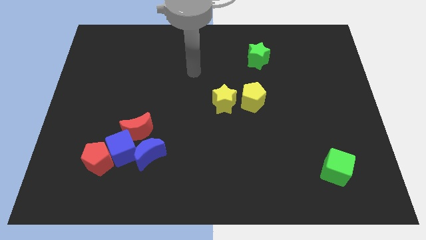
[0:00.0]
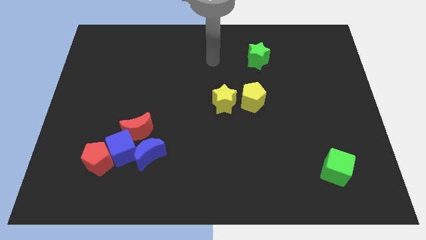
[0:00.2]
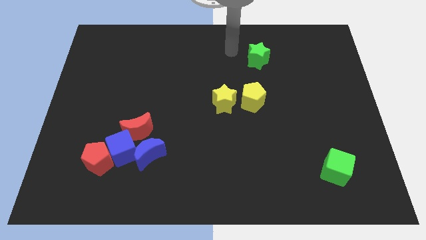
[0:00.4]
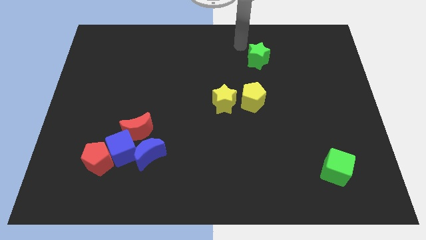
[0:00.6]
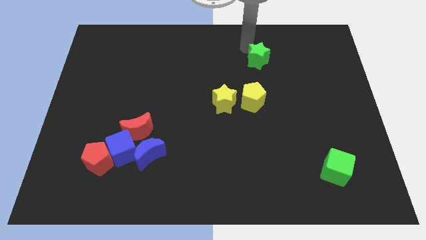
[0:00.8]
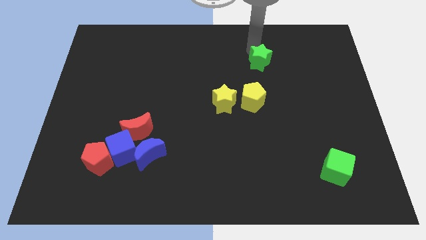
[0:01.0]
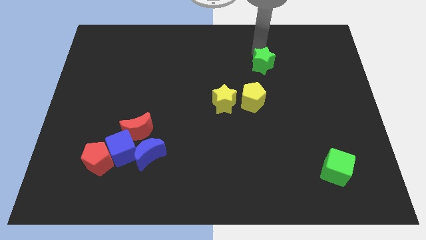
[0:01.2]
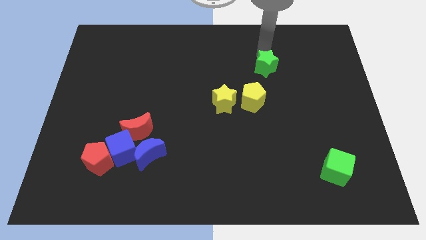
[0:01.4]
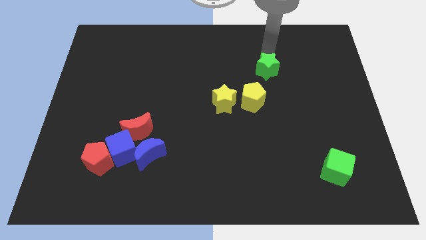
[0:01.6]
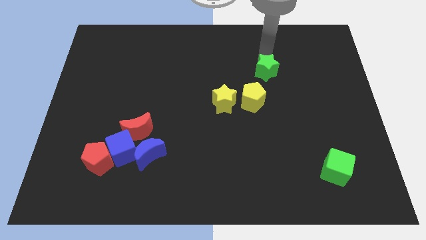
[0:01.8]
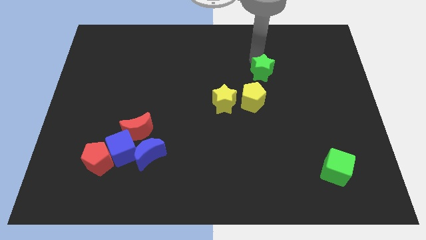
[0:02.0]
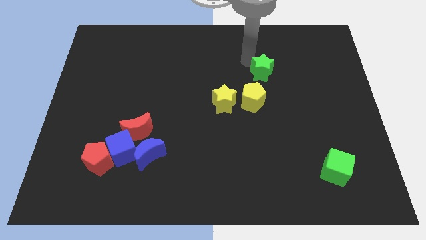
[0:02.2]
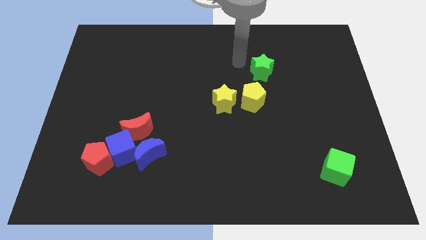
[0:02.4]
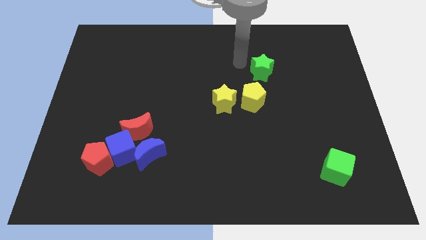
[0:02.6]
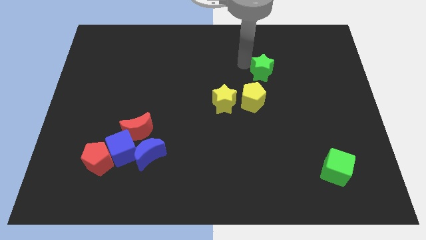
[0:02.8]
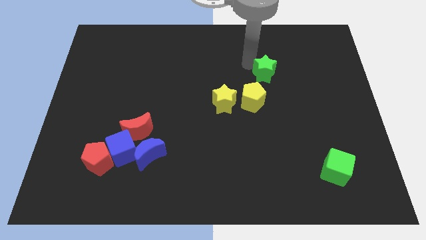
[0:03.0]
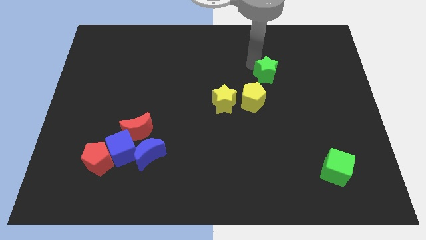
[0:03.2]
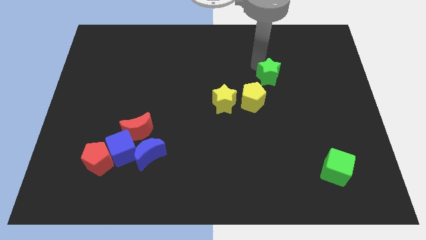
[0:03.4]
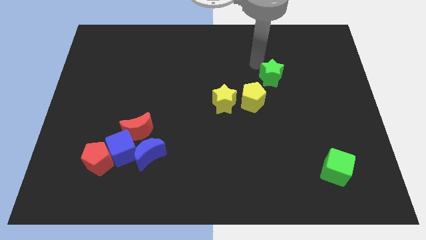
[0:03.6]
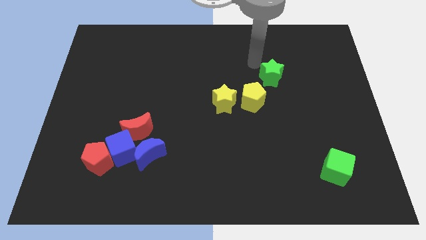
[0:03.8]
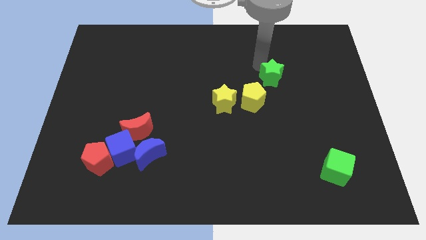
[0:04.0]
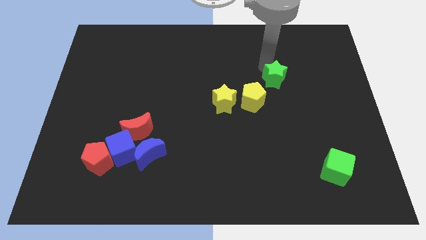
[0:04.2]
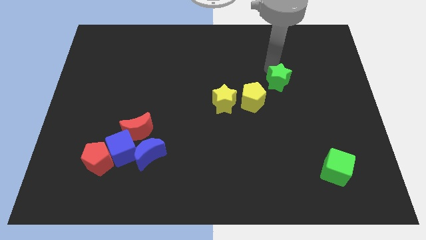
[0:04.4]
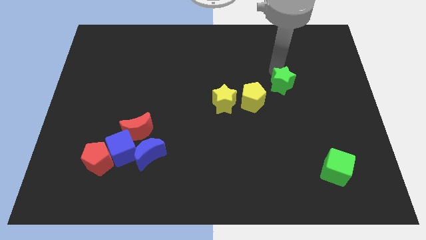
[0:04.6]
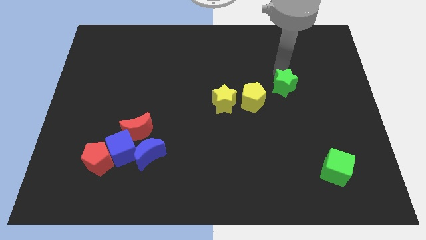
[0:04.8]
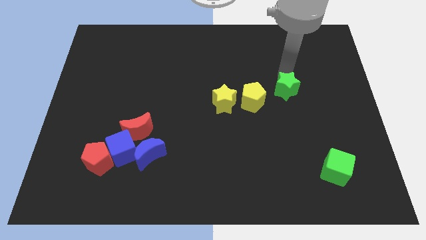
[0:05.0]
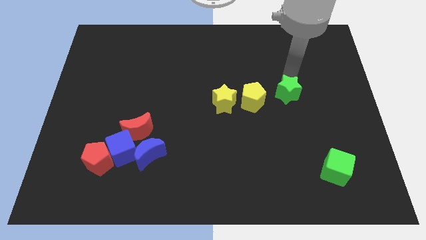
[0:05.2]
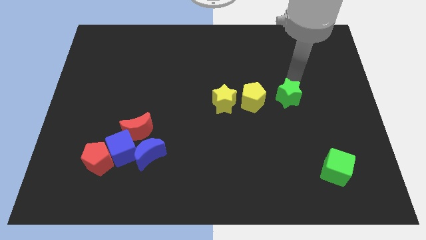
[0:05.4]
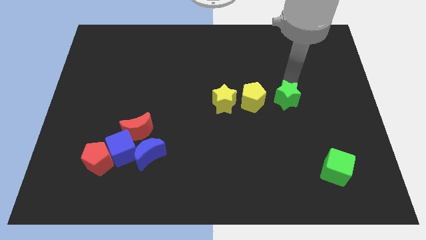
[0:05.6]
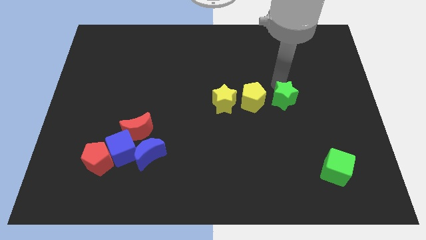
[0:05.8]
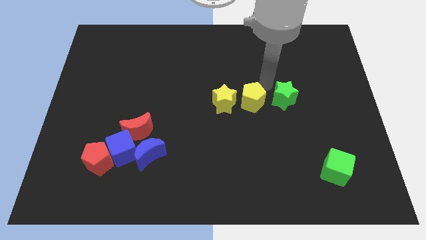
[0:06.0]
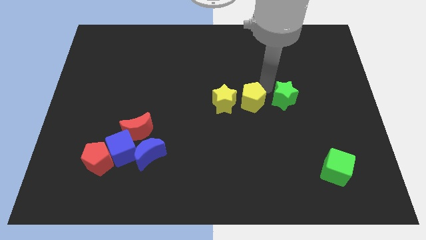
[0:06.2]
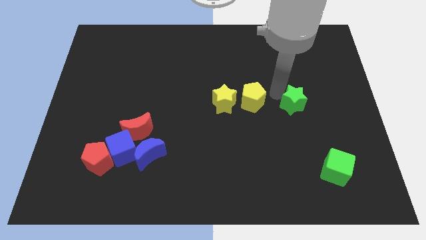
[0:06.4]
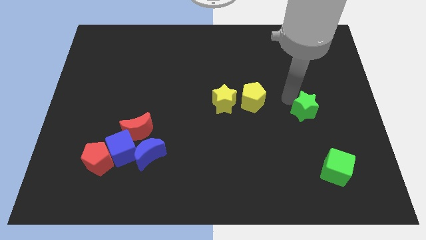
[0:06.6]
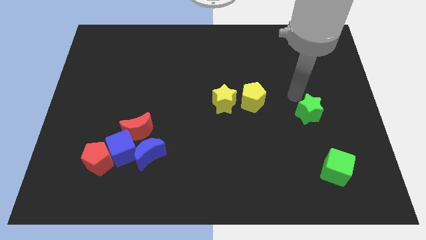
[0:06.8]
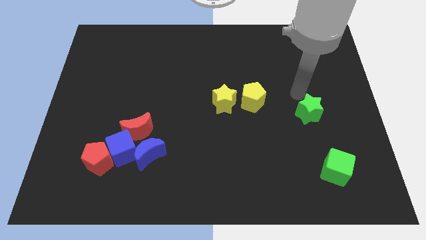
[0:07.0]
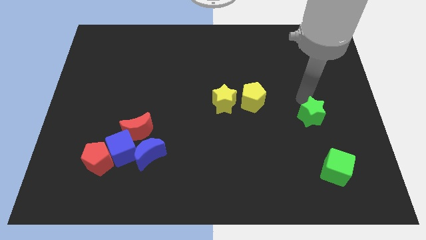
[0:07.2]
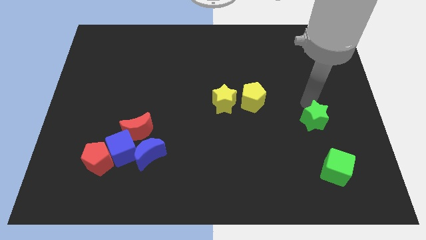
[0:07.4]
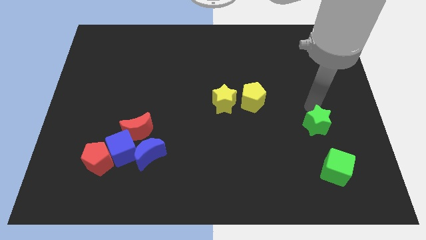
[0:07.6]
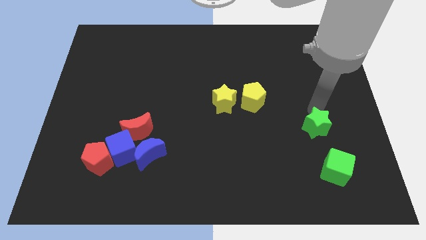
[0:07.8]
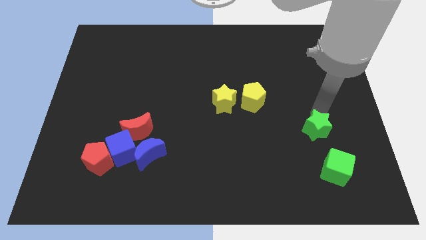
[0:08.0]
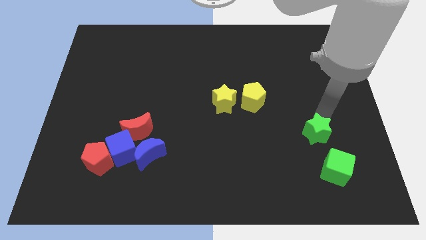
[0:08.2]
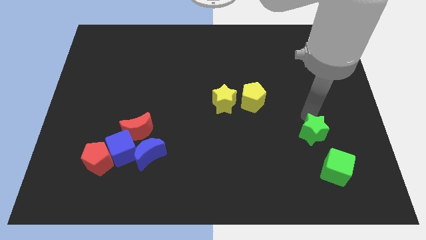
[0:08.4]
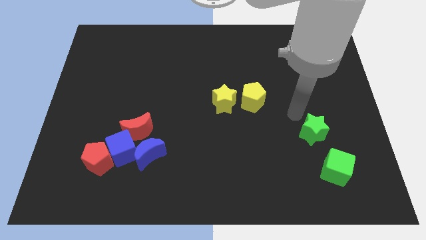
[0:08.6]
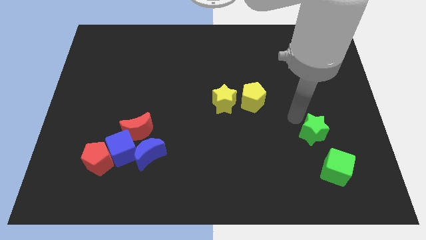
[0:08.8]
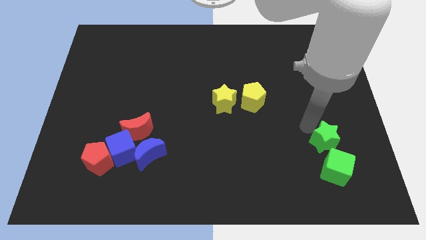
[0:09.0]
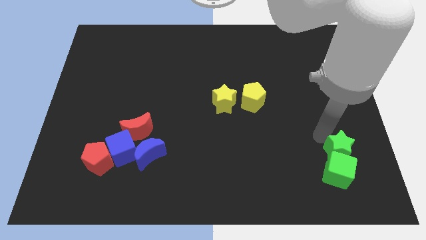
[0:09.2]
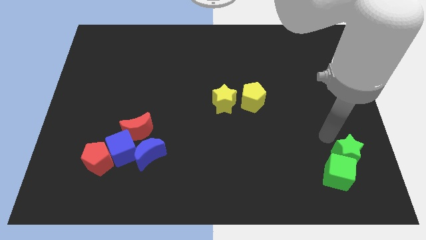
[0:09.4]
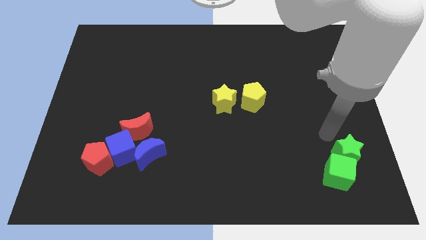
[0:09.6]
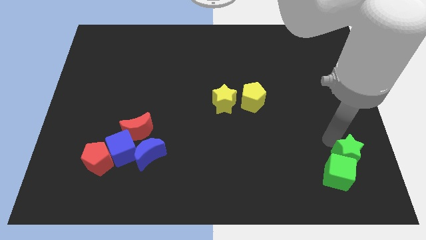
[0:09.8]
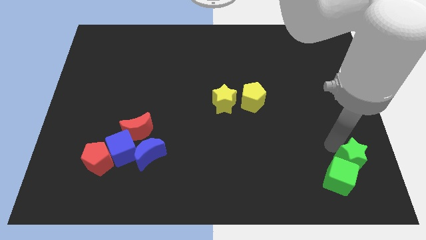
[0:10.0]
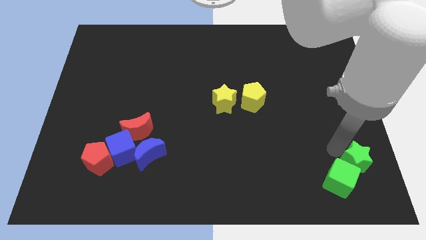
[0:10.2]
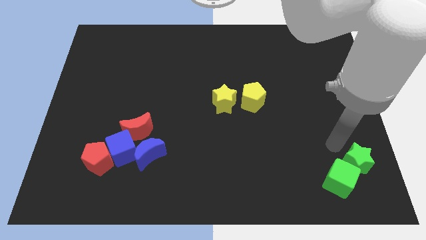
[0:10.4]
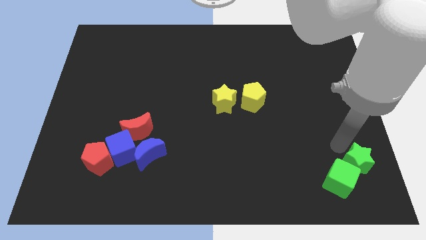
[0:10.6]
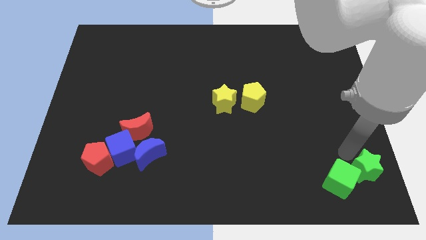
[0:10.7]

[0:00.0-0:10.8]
push the green star to the lower right corner

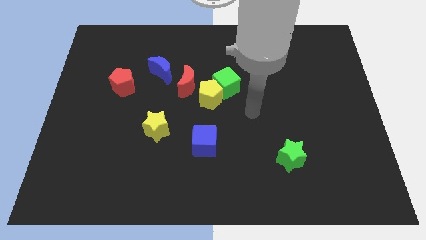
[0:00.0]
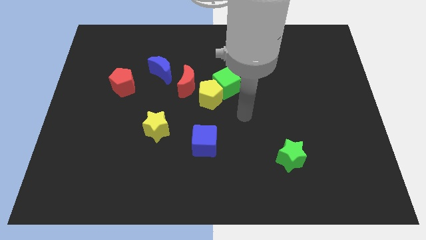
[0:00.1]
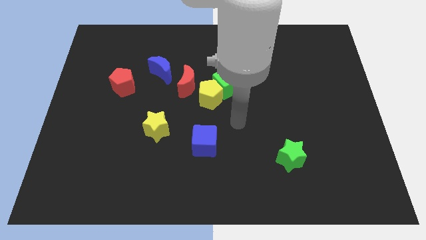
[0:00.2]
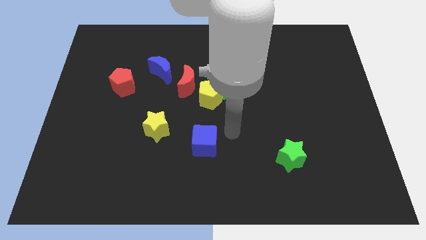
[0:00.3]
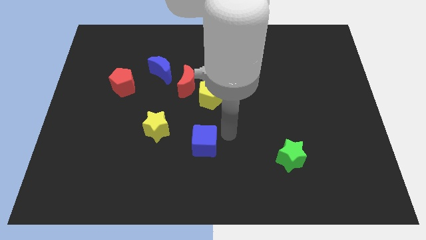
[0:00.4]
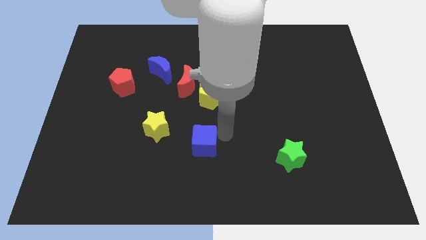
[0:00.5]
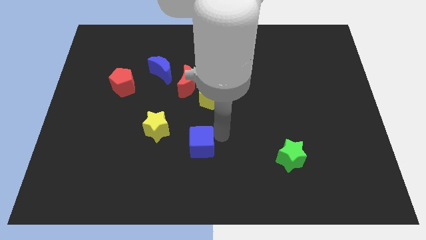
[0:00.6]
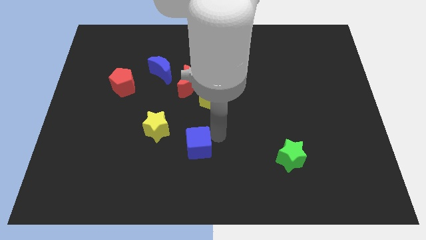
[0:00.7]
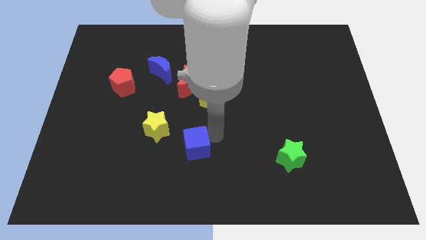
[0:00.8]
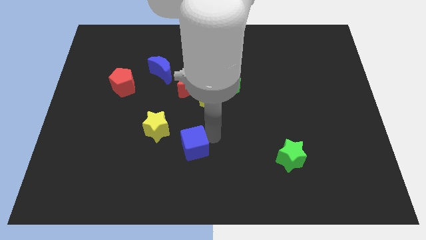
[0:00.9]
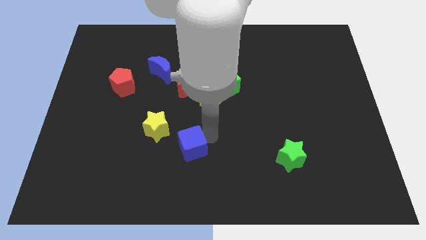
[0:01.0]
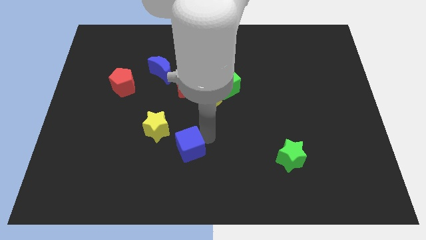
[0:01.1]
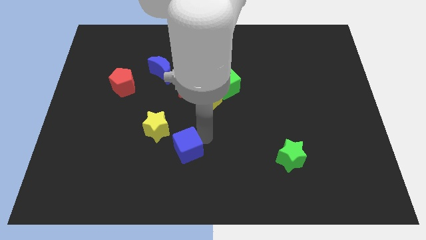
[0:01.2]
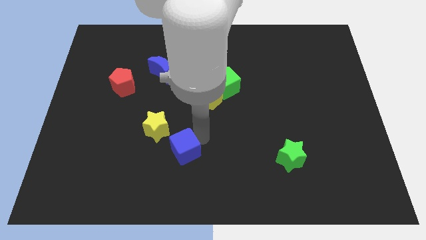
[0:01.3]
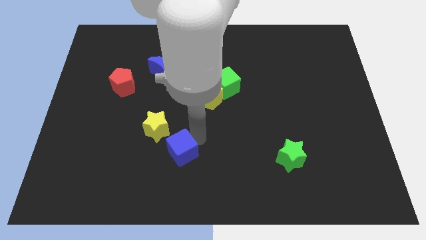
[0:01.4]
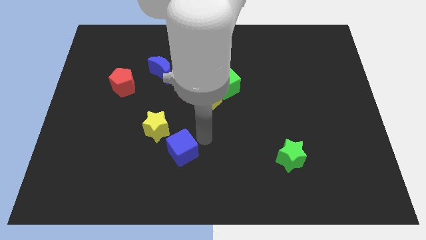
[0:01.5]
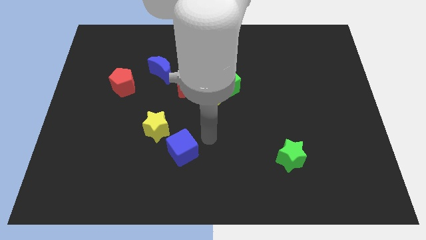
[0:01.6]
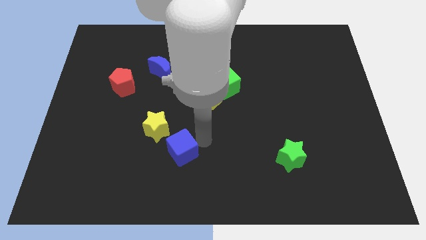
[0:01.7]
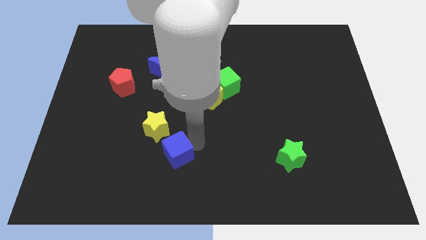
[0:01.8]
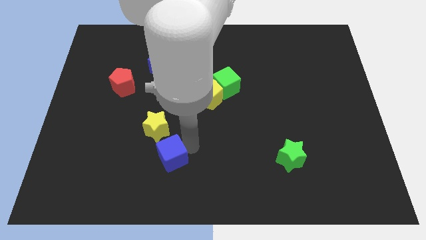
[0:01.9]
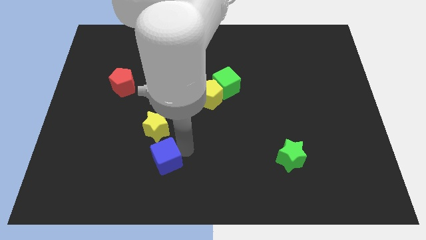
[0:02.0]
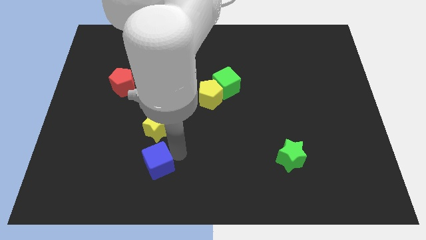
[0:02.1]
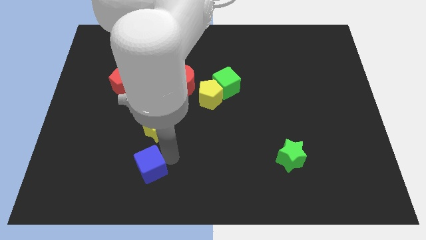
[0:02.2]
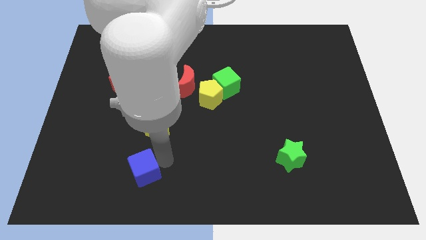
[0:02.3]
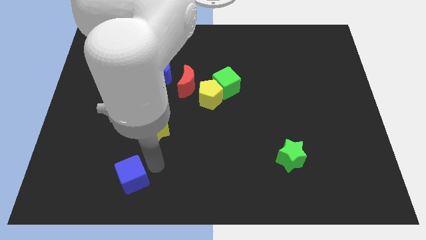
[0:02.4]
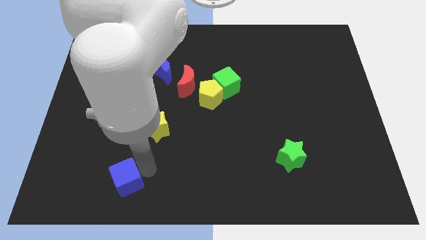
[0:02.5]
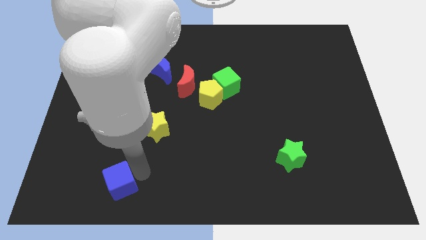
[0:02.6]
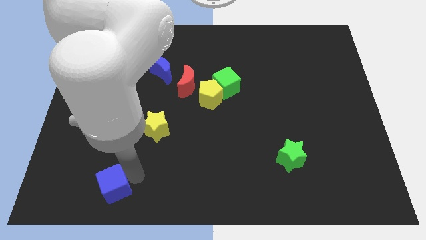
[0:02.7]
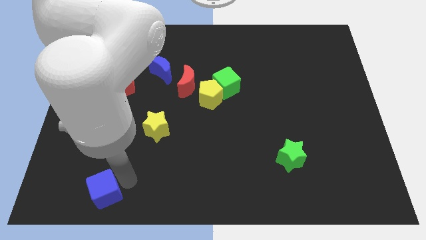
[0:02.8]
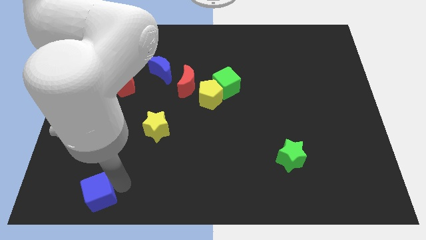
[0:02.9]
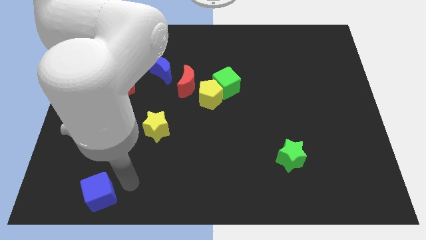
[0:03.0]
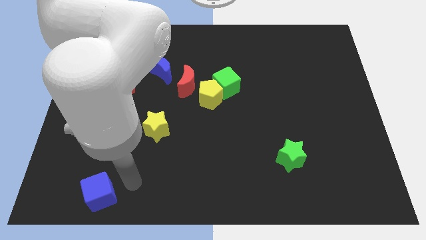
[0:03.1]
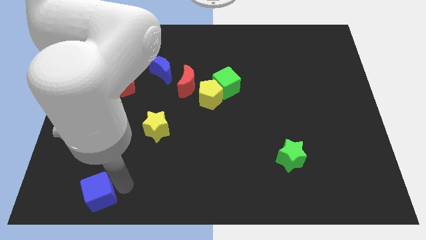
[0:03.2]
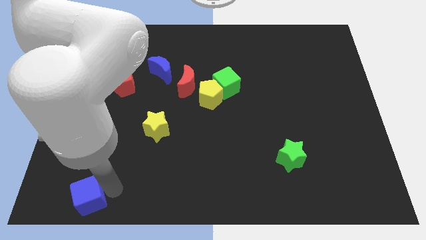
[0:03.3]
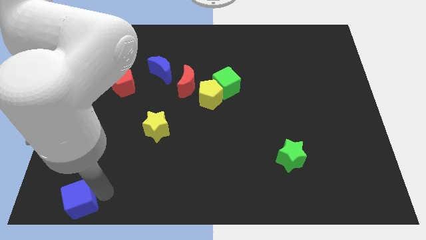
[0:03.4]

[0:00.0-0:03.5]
slide the blue cube to the bottom left corner
